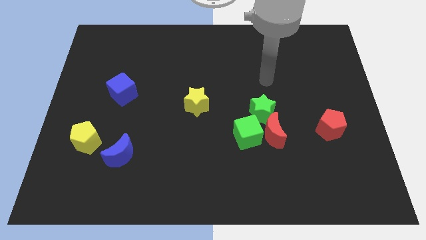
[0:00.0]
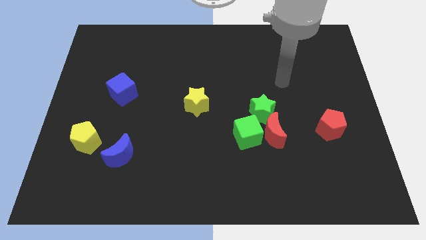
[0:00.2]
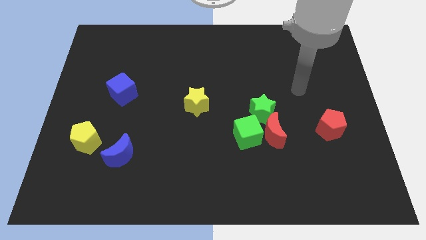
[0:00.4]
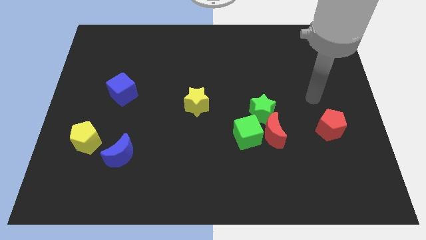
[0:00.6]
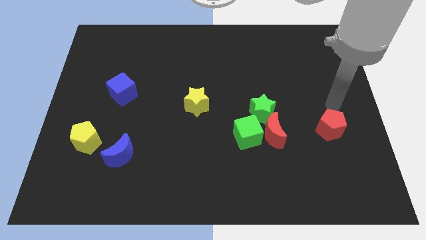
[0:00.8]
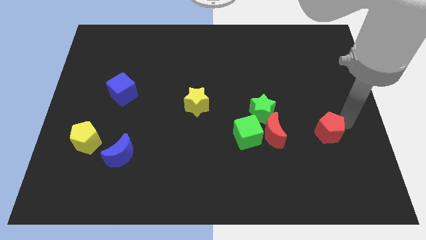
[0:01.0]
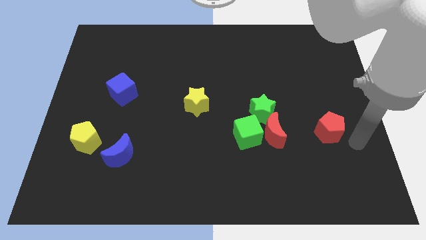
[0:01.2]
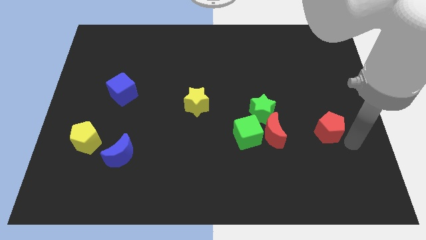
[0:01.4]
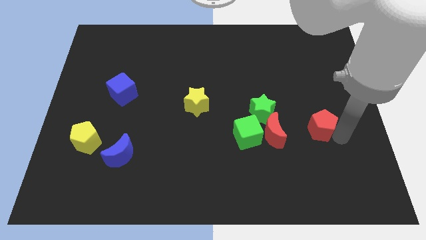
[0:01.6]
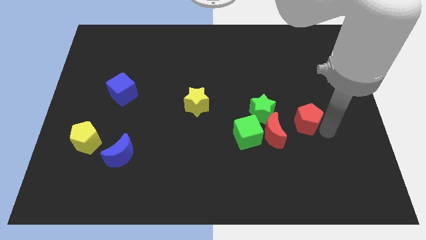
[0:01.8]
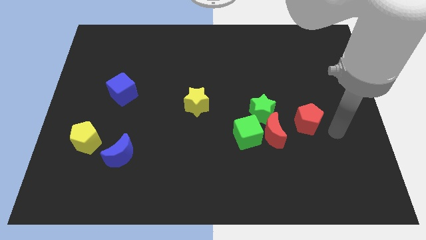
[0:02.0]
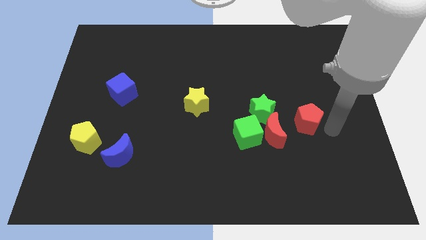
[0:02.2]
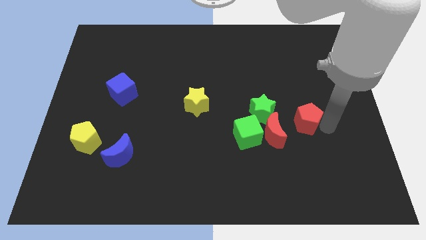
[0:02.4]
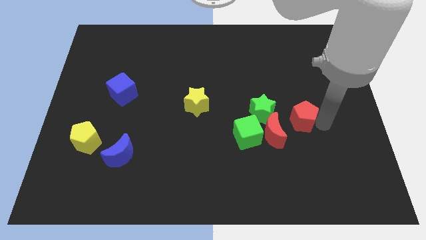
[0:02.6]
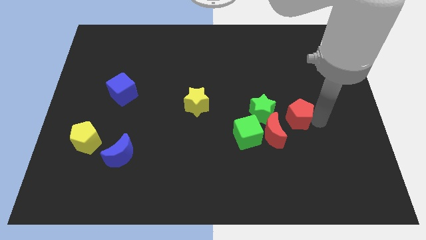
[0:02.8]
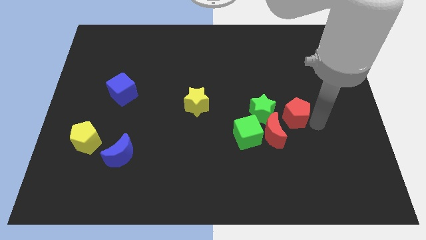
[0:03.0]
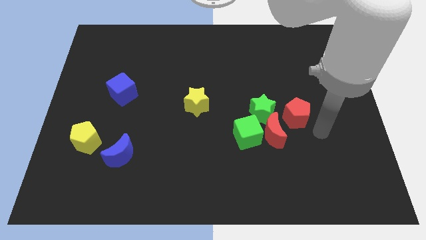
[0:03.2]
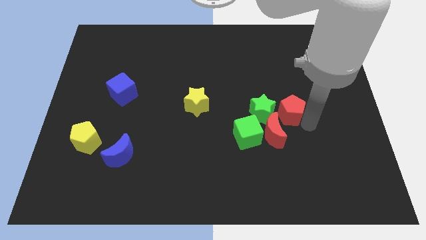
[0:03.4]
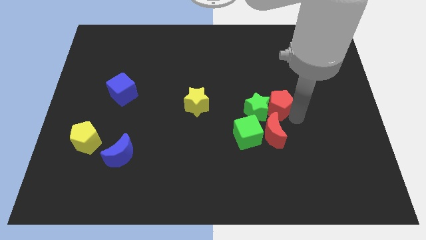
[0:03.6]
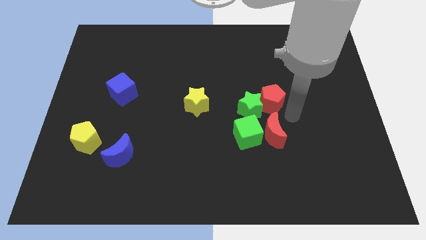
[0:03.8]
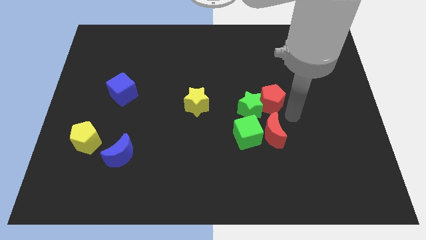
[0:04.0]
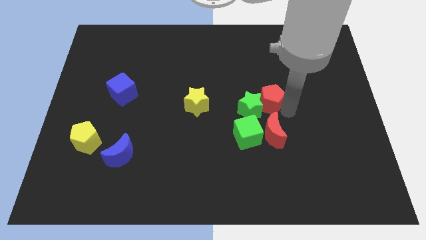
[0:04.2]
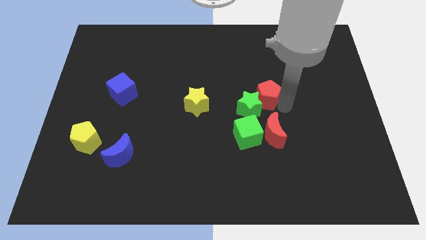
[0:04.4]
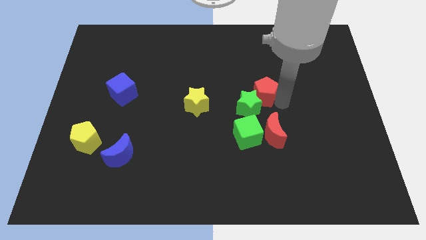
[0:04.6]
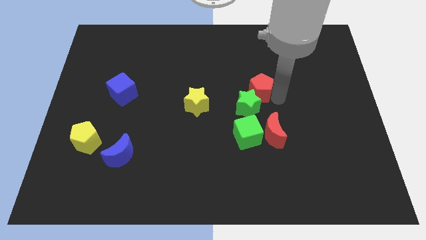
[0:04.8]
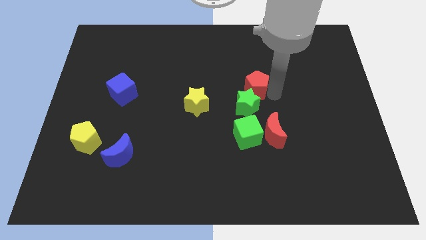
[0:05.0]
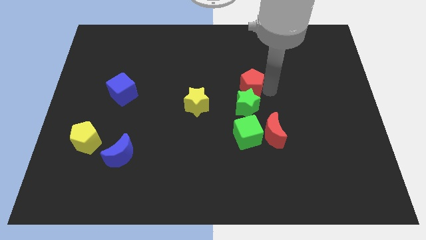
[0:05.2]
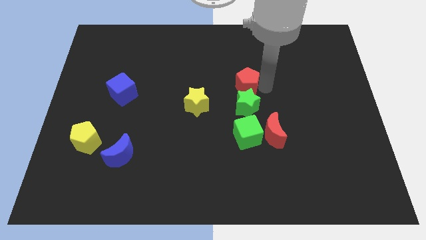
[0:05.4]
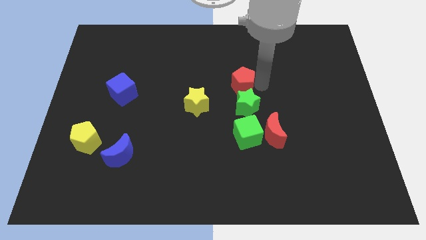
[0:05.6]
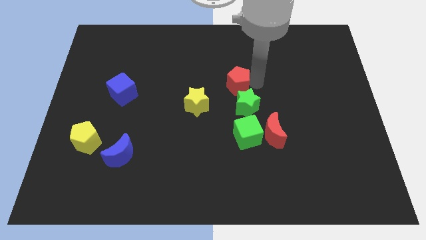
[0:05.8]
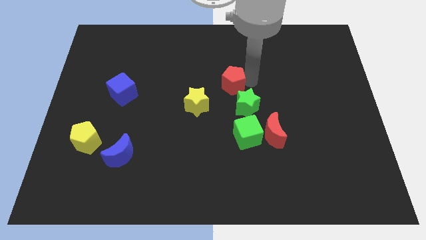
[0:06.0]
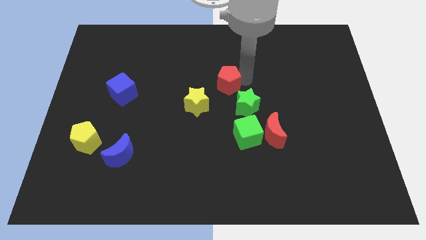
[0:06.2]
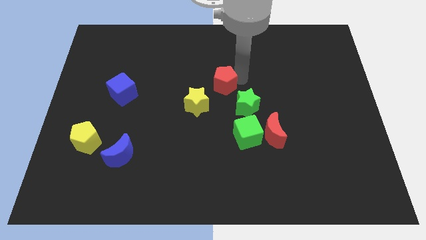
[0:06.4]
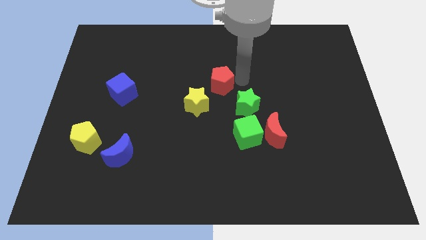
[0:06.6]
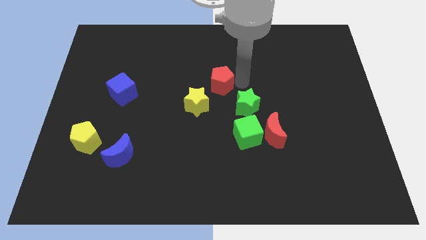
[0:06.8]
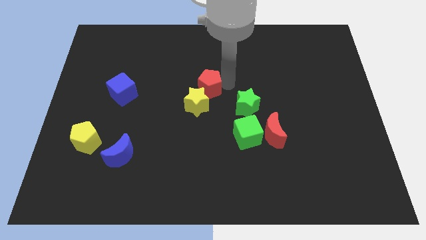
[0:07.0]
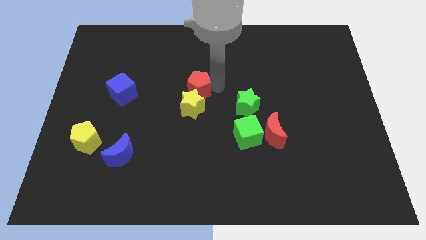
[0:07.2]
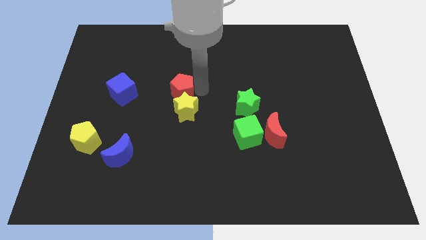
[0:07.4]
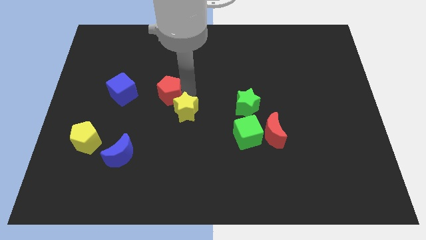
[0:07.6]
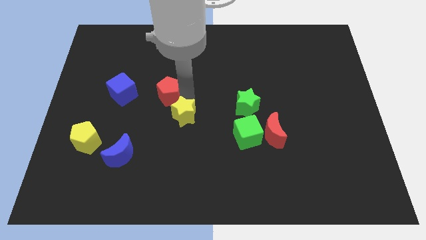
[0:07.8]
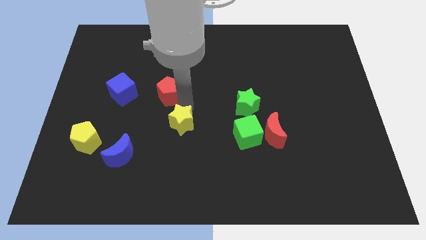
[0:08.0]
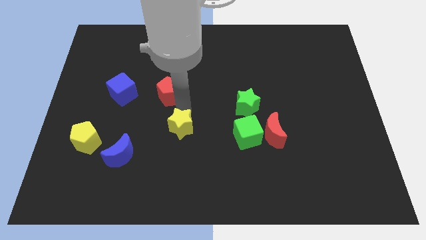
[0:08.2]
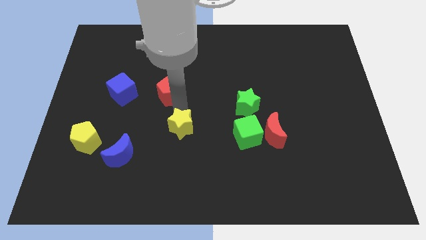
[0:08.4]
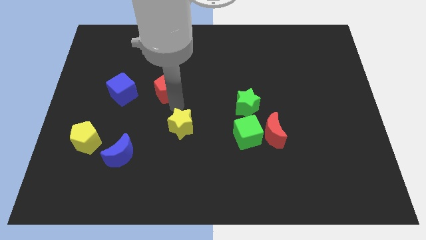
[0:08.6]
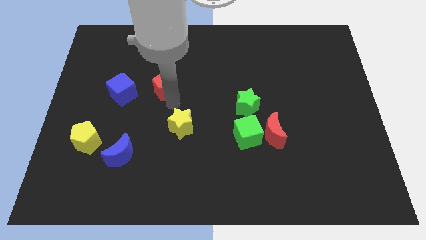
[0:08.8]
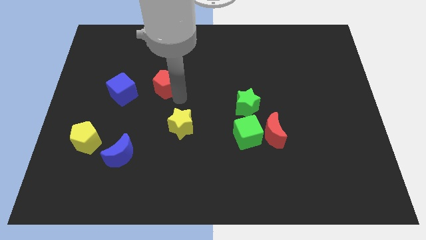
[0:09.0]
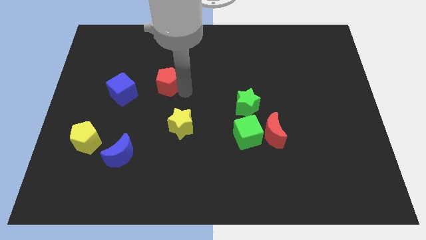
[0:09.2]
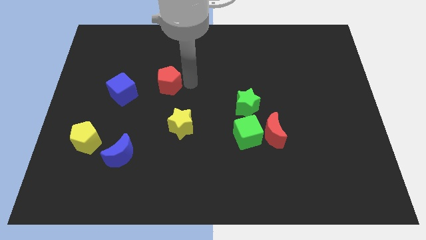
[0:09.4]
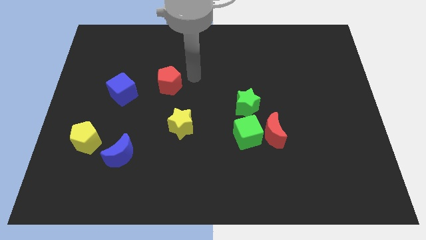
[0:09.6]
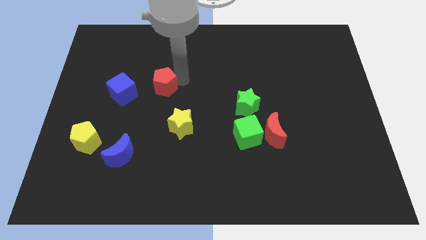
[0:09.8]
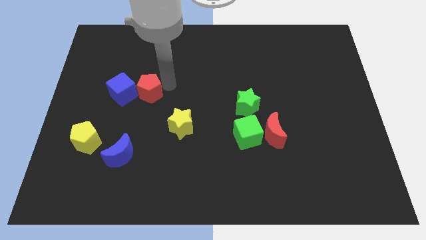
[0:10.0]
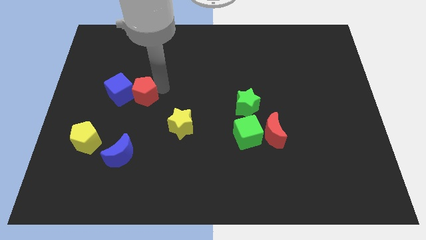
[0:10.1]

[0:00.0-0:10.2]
move the red pentagon next to the blue cube

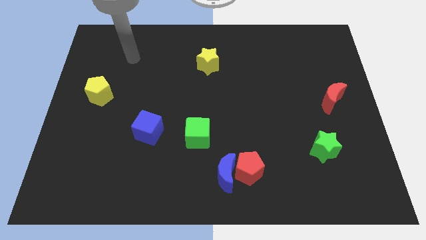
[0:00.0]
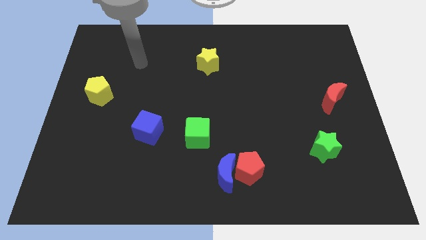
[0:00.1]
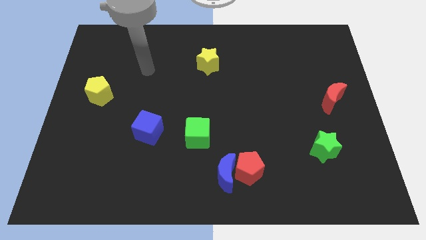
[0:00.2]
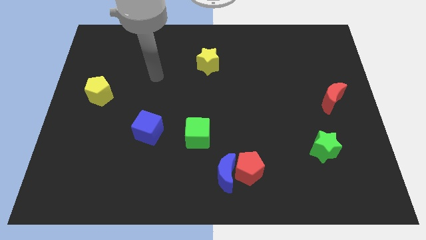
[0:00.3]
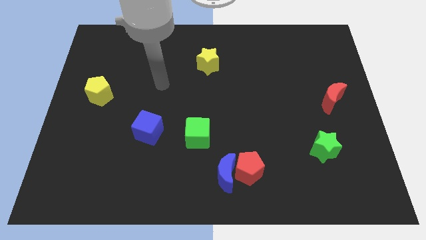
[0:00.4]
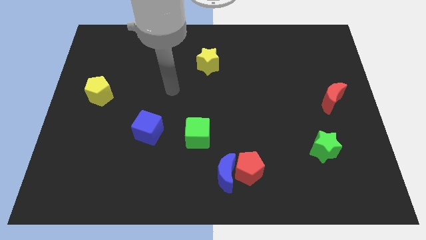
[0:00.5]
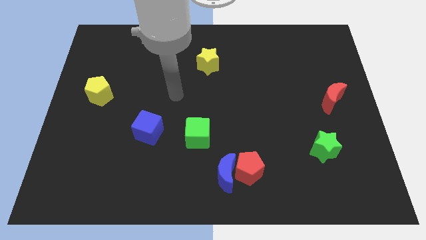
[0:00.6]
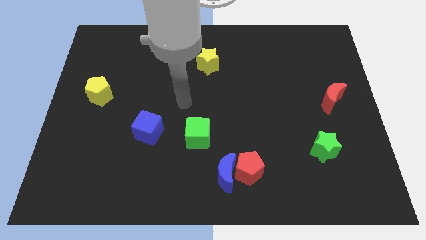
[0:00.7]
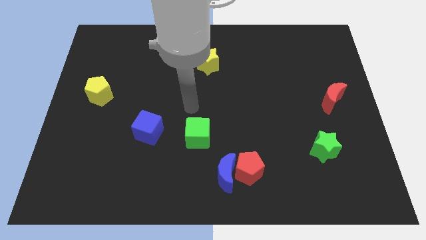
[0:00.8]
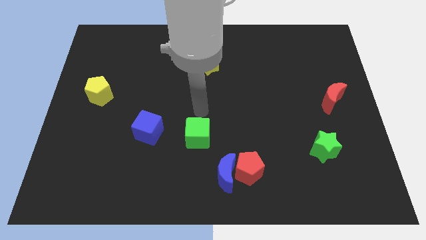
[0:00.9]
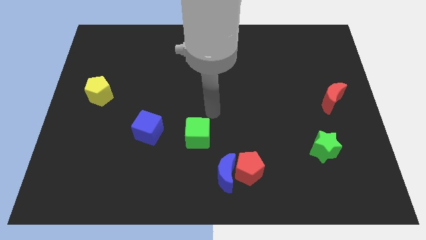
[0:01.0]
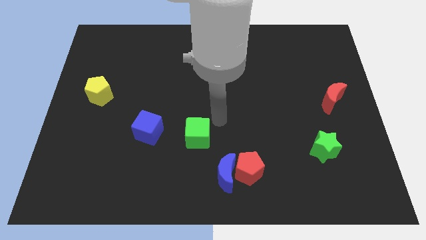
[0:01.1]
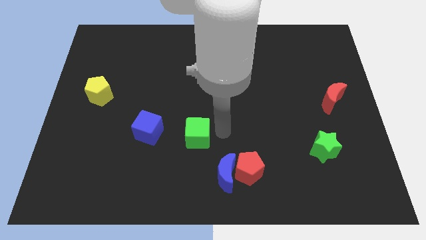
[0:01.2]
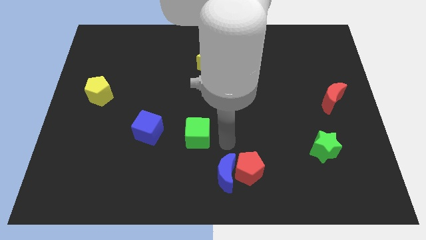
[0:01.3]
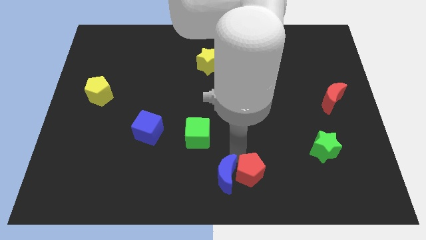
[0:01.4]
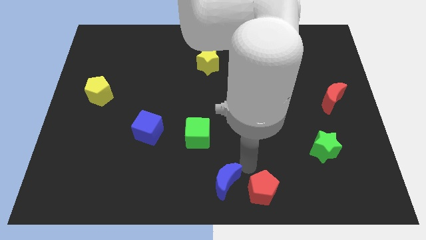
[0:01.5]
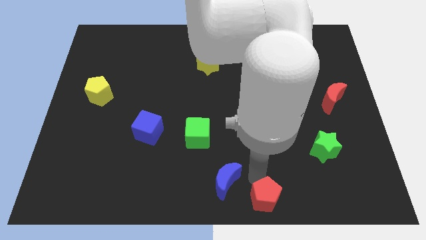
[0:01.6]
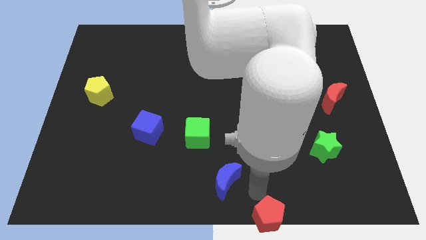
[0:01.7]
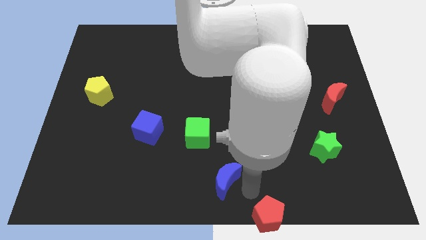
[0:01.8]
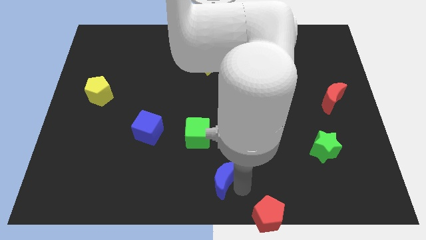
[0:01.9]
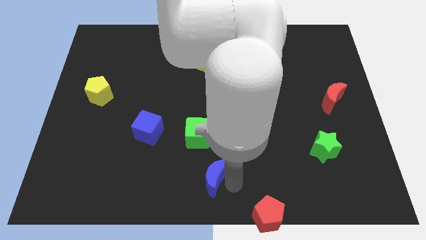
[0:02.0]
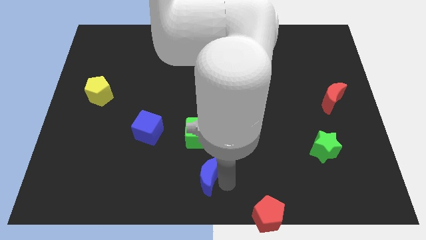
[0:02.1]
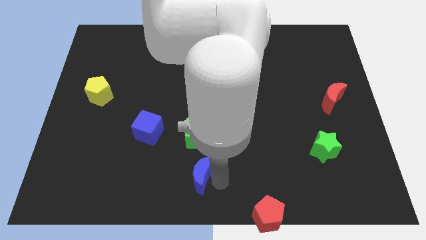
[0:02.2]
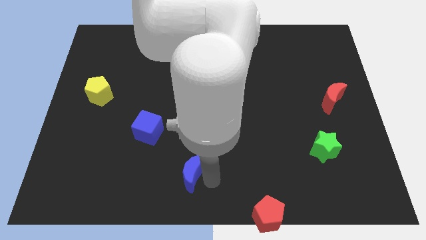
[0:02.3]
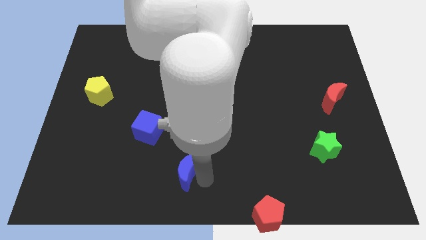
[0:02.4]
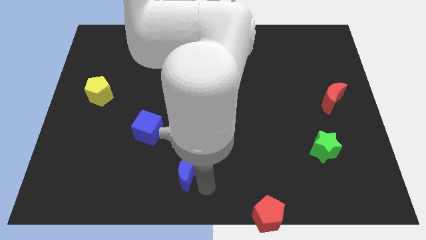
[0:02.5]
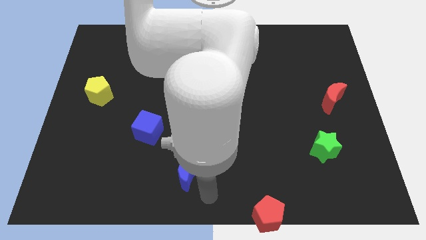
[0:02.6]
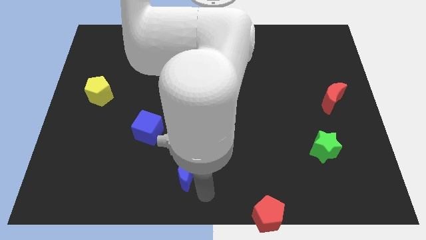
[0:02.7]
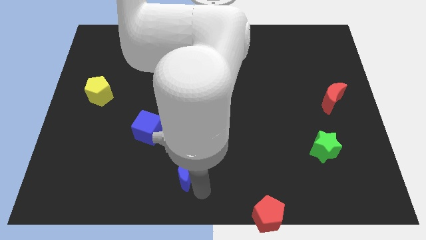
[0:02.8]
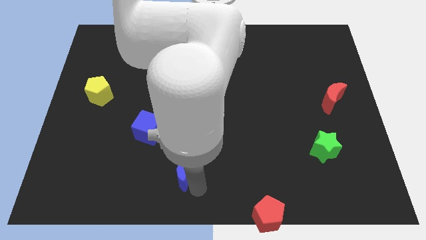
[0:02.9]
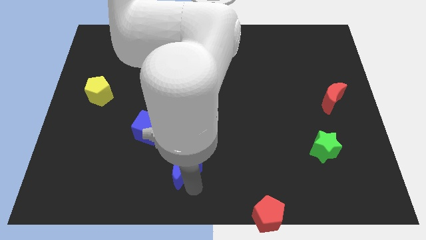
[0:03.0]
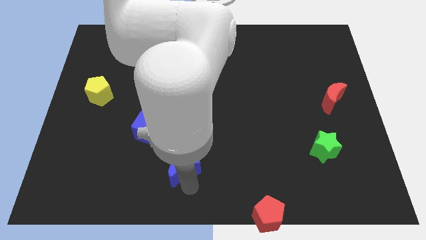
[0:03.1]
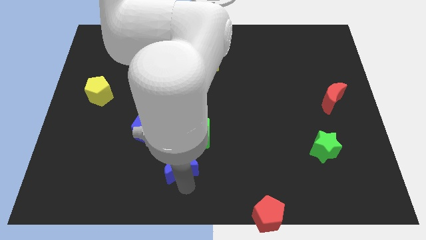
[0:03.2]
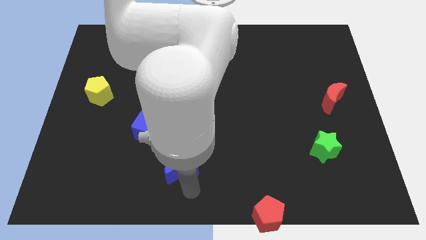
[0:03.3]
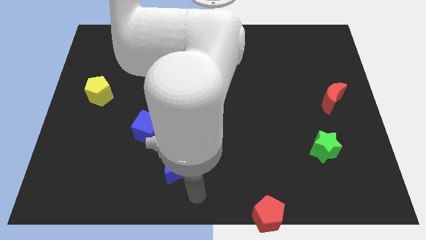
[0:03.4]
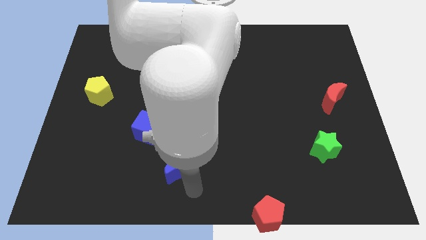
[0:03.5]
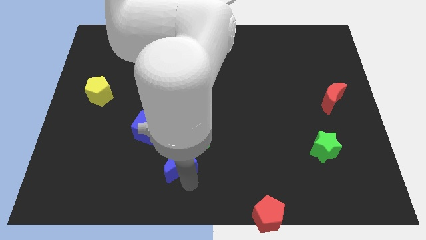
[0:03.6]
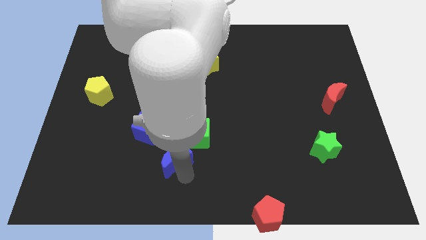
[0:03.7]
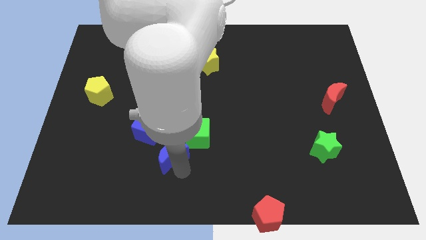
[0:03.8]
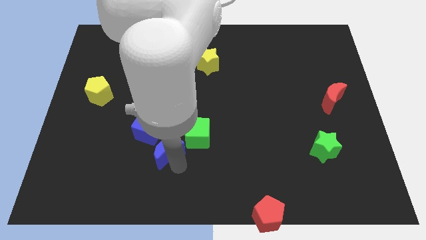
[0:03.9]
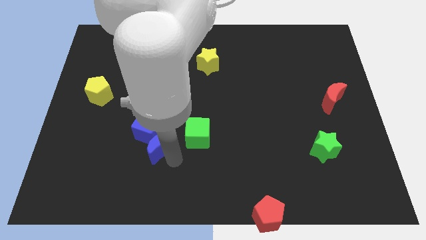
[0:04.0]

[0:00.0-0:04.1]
put the blue moon to the blue cube
